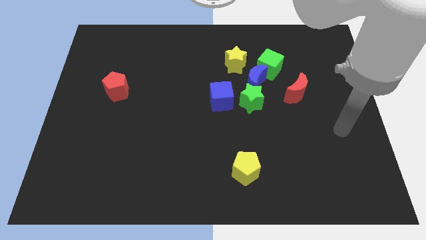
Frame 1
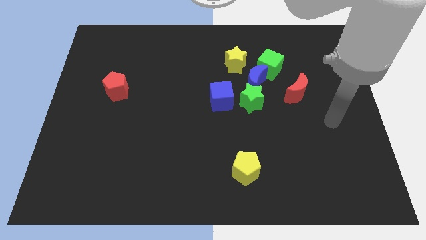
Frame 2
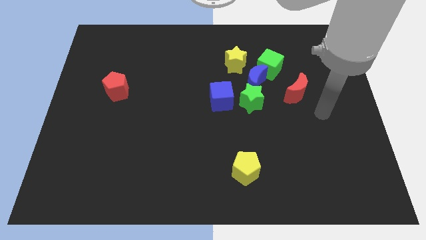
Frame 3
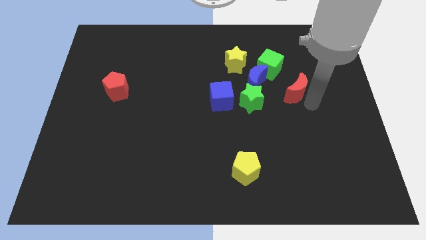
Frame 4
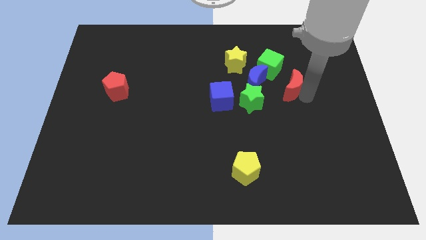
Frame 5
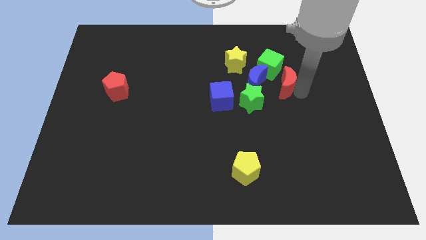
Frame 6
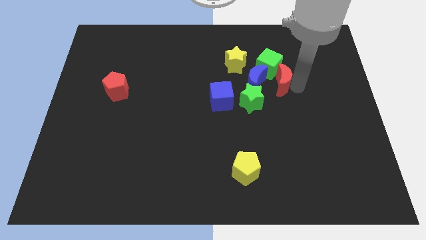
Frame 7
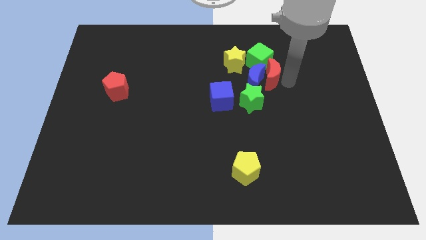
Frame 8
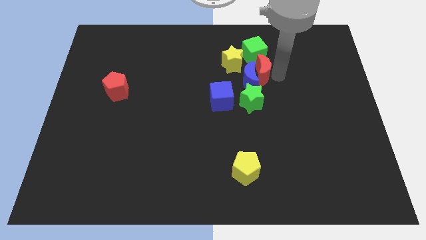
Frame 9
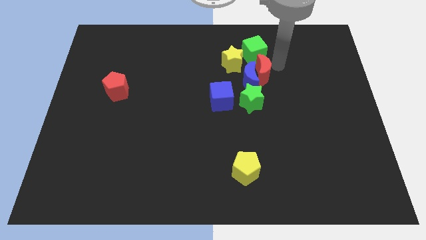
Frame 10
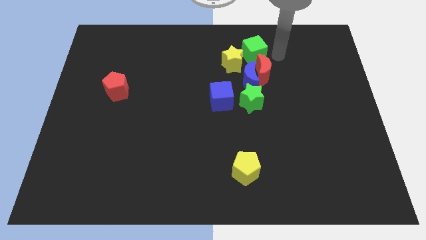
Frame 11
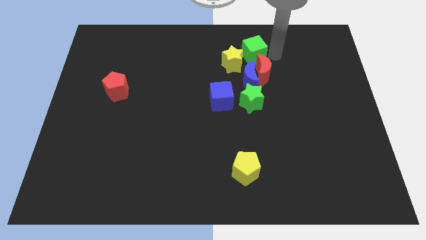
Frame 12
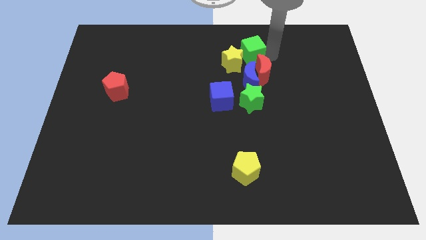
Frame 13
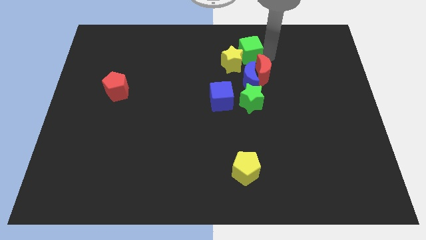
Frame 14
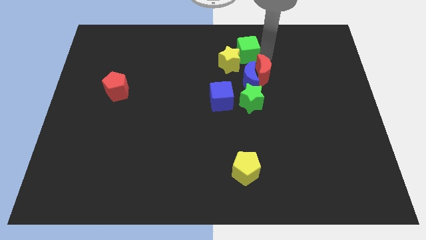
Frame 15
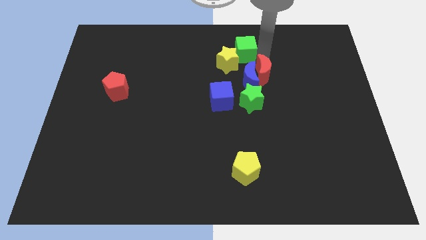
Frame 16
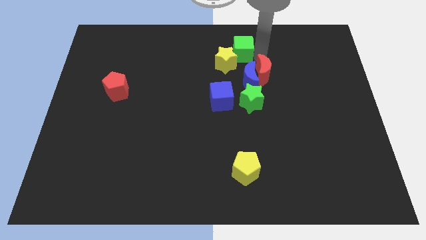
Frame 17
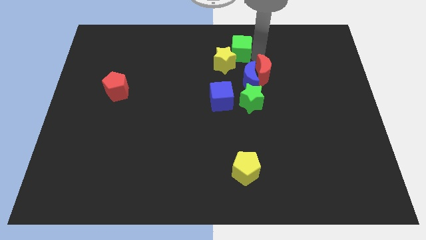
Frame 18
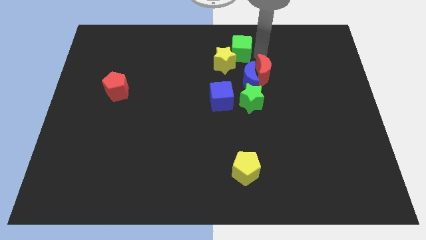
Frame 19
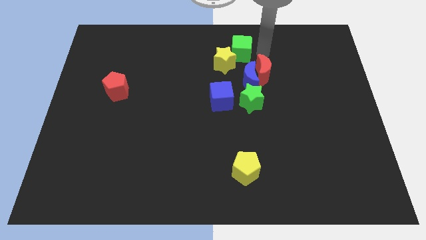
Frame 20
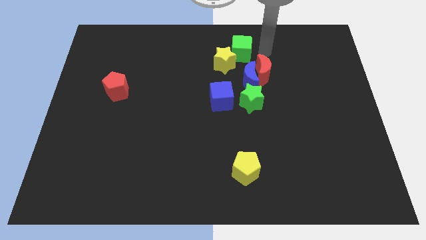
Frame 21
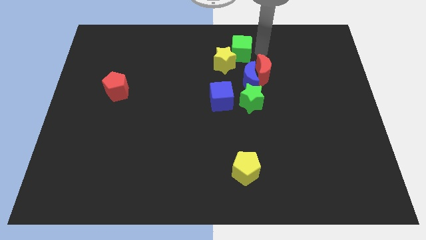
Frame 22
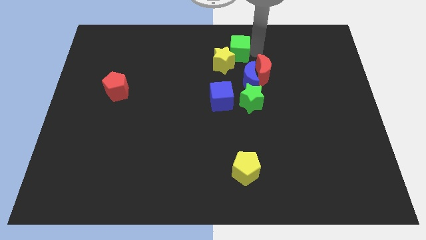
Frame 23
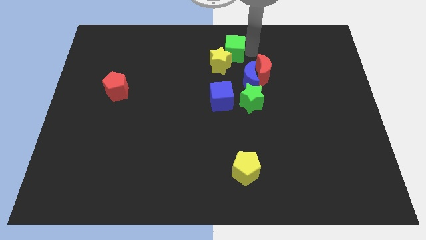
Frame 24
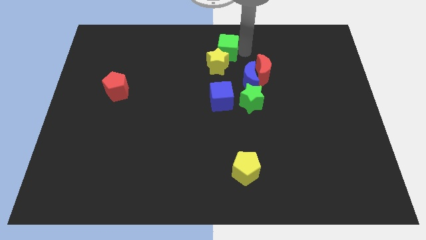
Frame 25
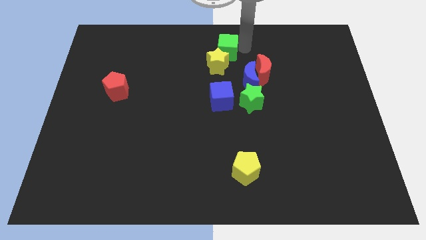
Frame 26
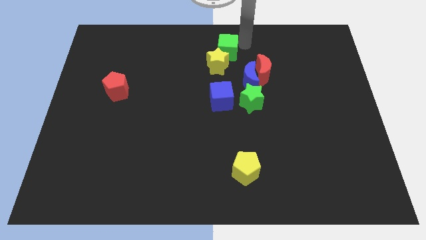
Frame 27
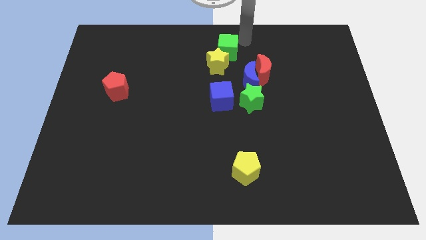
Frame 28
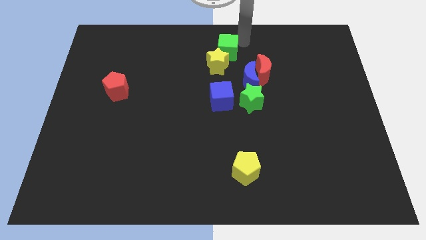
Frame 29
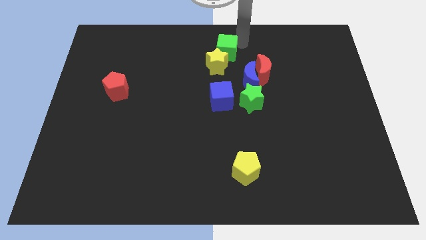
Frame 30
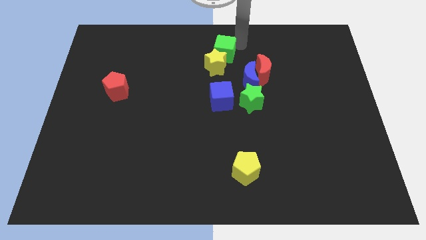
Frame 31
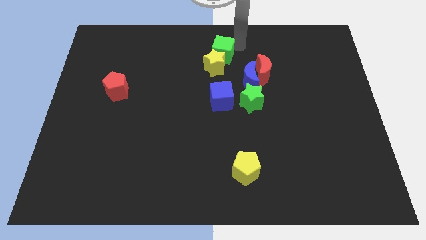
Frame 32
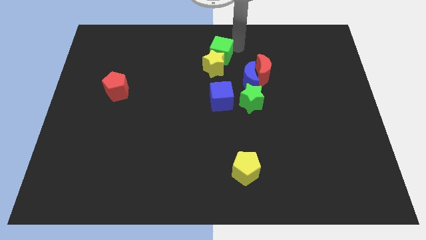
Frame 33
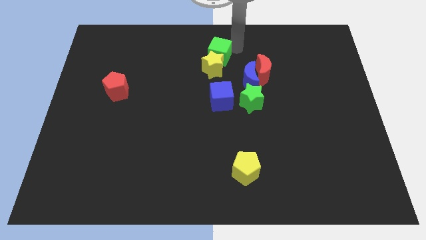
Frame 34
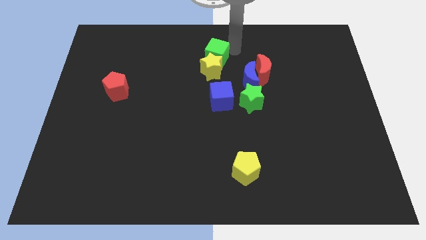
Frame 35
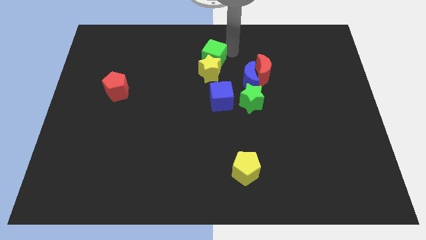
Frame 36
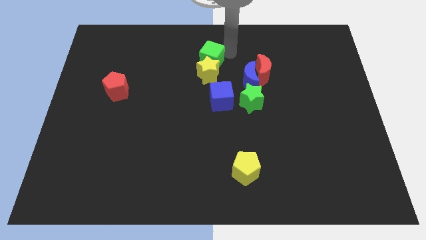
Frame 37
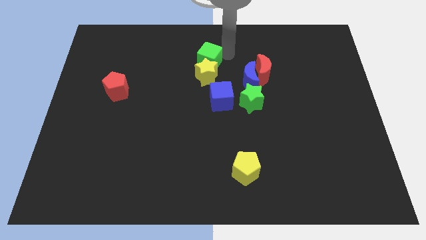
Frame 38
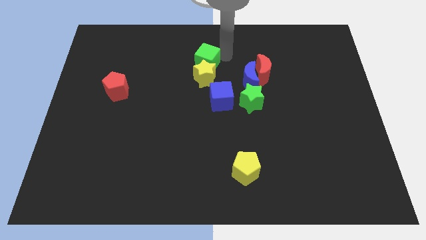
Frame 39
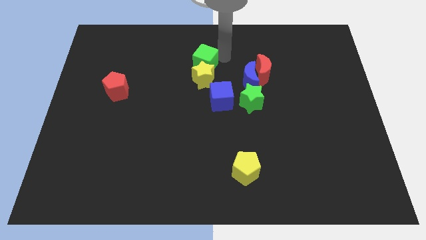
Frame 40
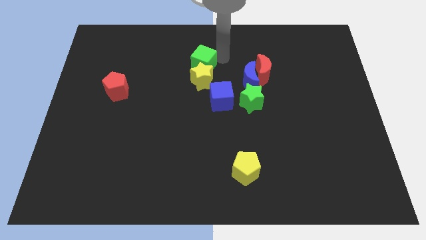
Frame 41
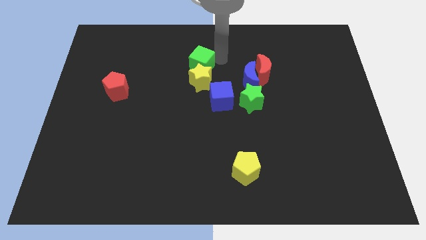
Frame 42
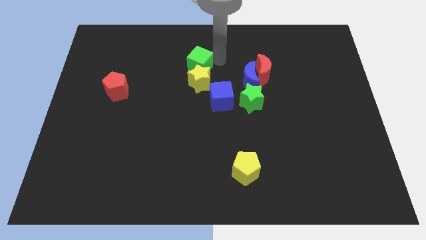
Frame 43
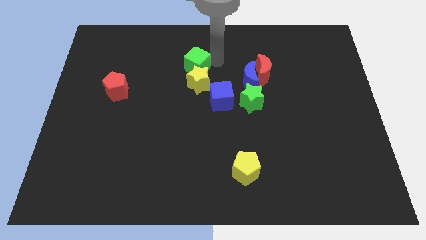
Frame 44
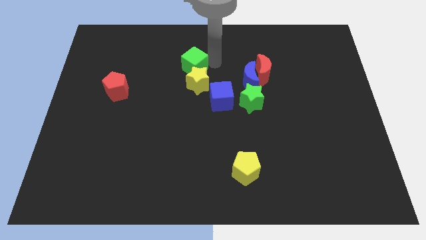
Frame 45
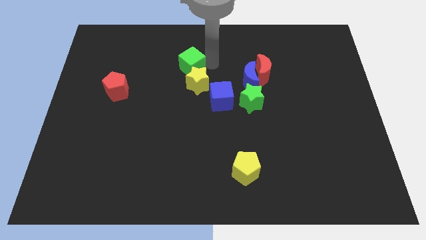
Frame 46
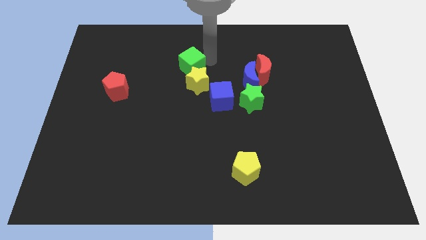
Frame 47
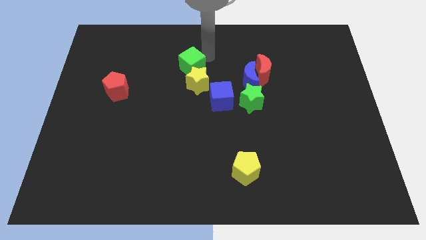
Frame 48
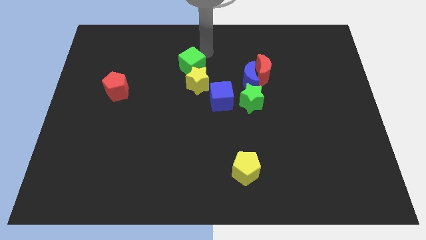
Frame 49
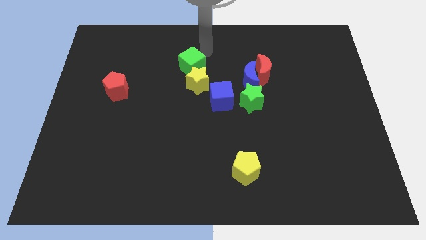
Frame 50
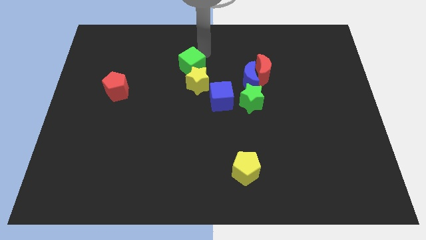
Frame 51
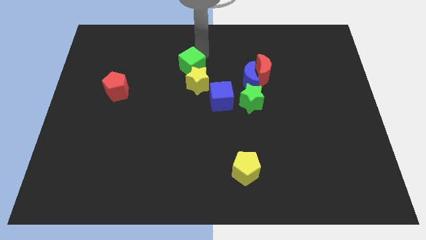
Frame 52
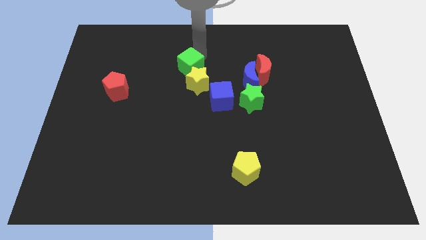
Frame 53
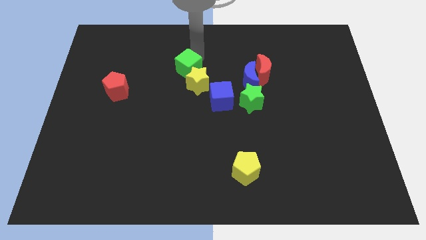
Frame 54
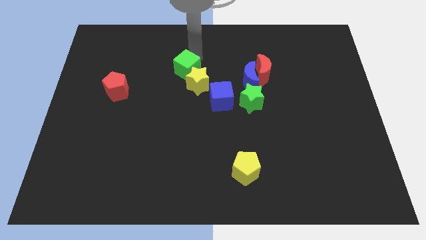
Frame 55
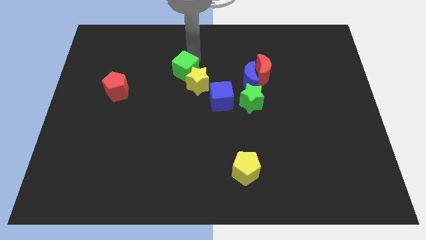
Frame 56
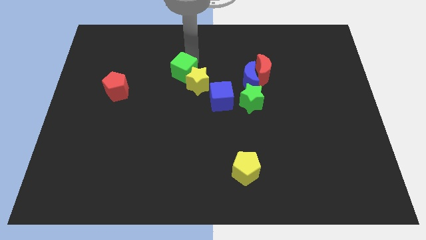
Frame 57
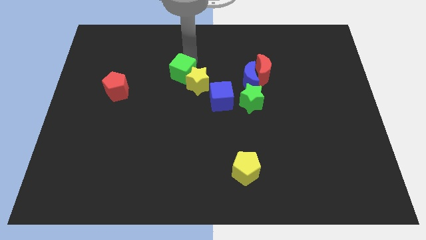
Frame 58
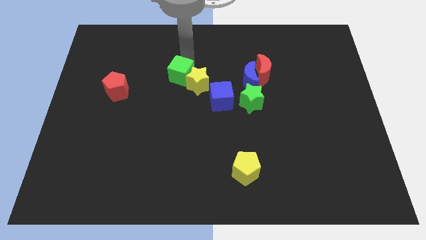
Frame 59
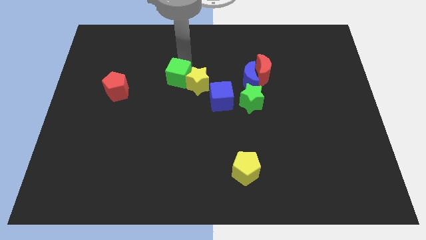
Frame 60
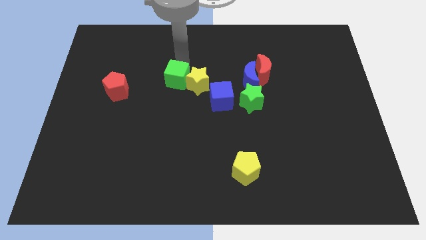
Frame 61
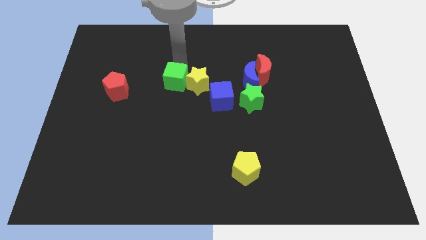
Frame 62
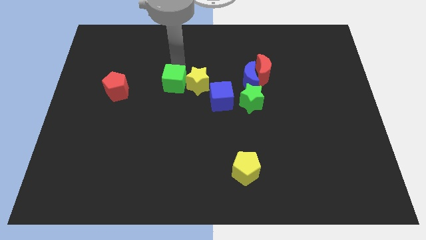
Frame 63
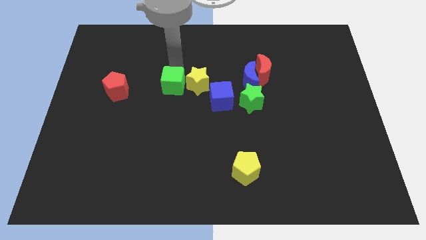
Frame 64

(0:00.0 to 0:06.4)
slide the green cube just left of the blue cube

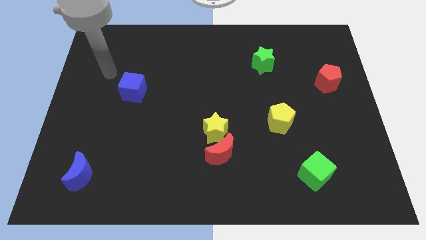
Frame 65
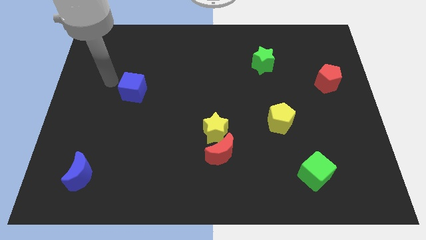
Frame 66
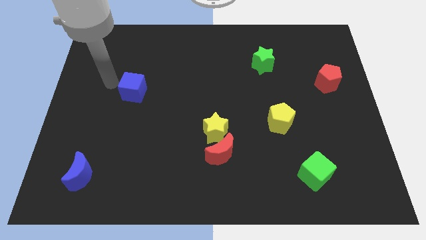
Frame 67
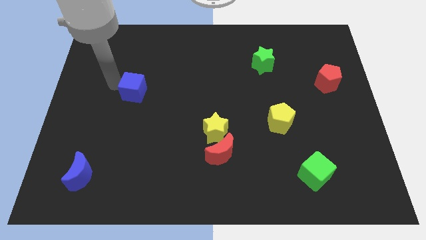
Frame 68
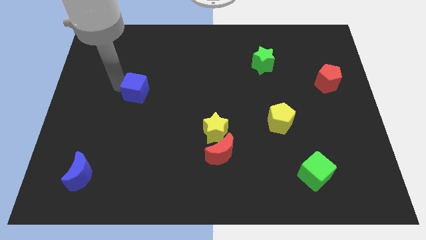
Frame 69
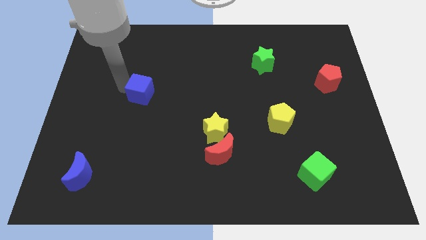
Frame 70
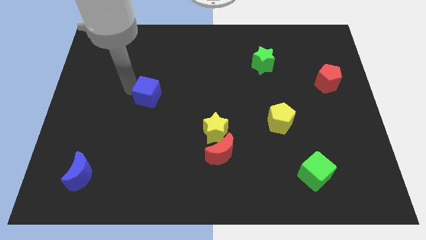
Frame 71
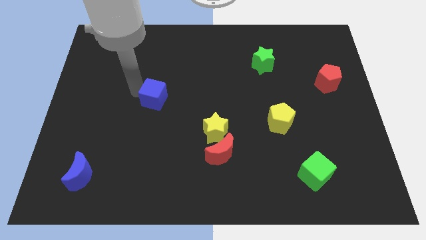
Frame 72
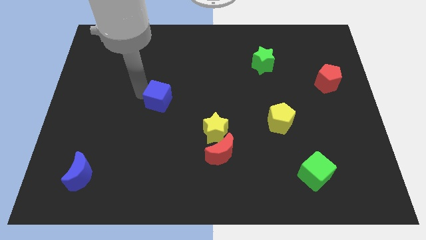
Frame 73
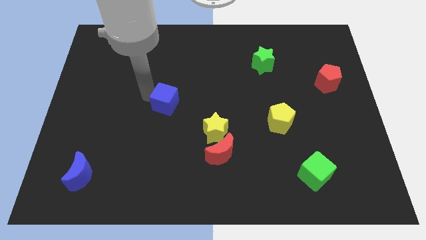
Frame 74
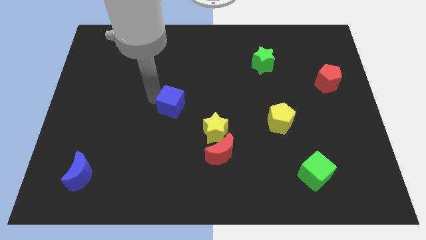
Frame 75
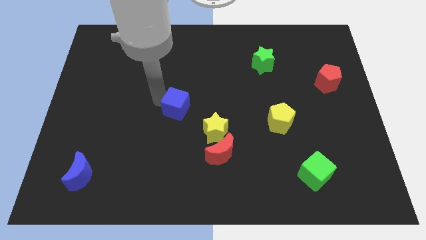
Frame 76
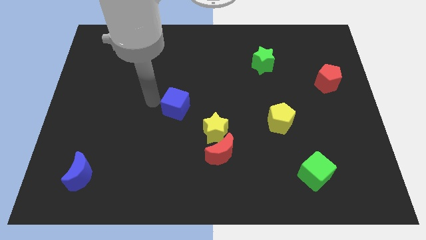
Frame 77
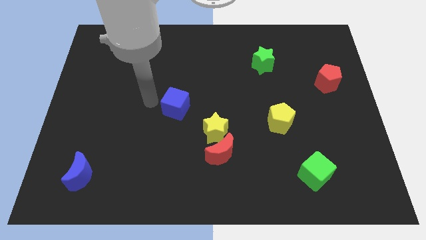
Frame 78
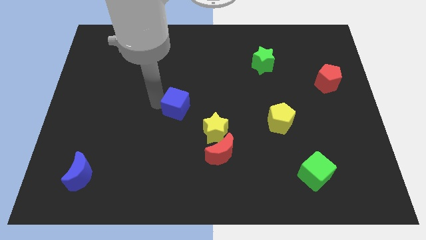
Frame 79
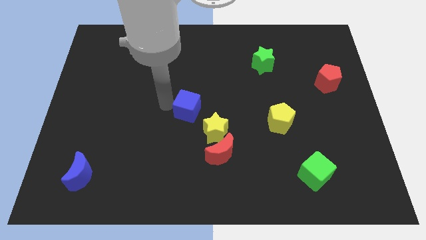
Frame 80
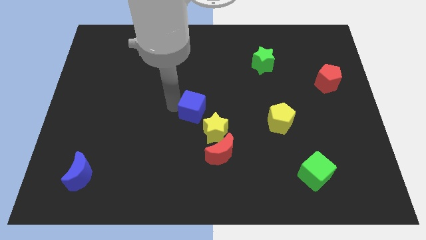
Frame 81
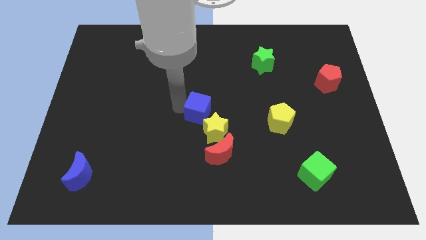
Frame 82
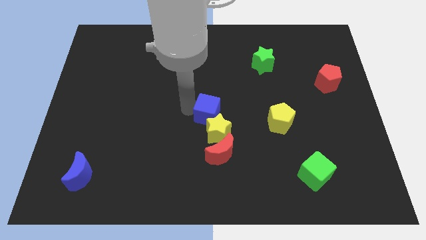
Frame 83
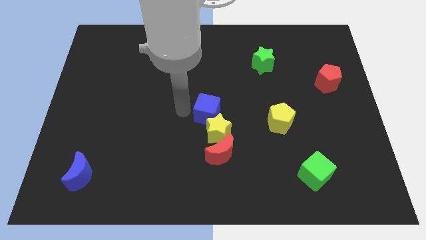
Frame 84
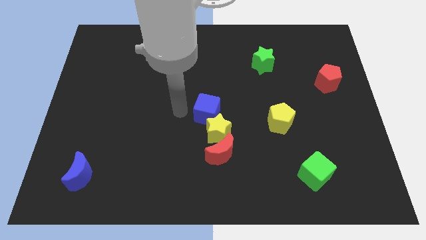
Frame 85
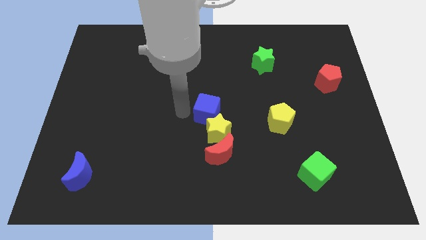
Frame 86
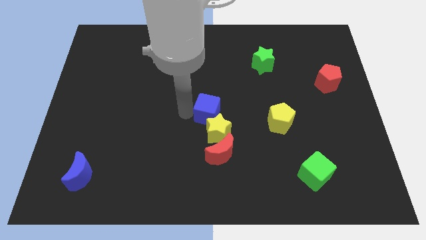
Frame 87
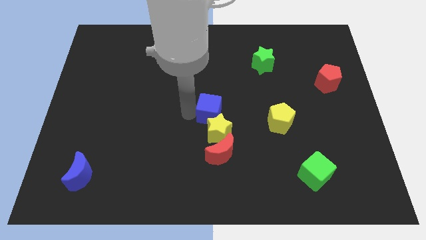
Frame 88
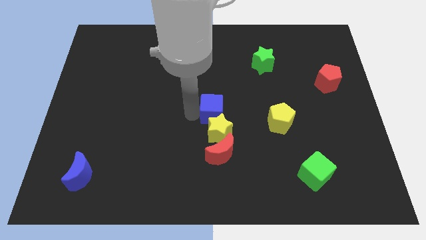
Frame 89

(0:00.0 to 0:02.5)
push the blue cube diagonally up and to the right of the yellow star
